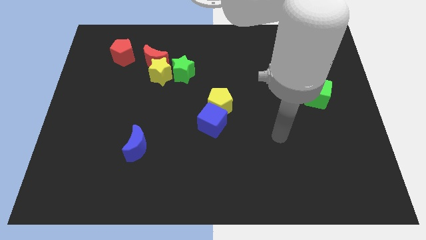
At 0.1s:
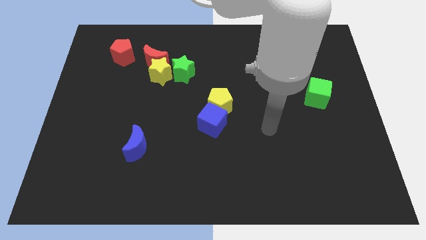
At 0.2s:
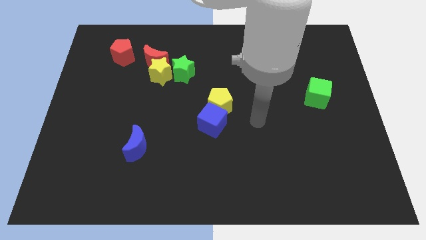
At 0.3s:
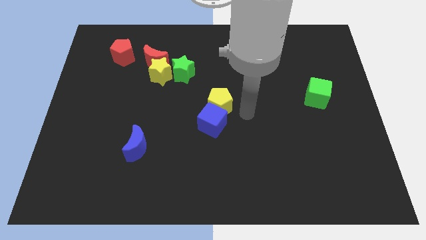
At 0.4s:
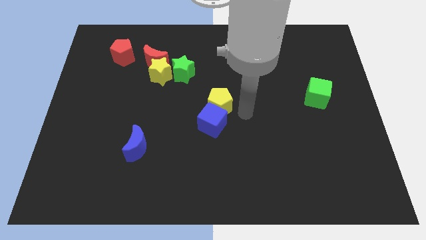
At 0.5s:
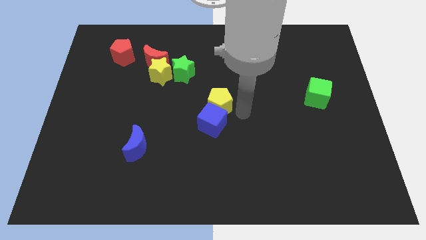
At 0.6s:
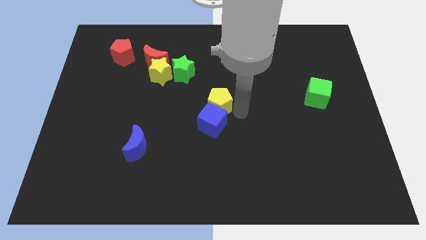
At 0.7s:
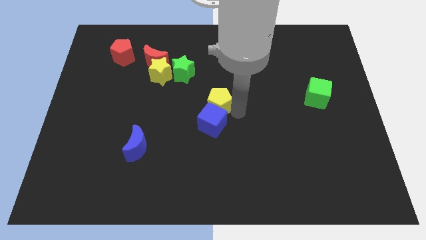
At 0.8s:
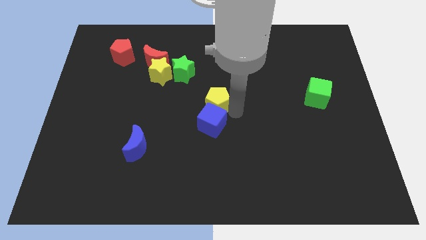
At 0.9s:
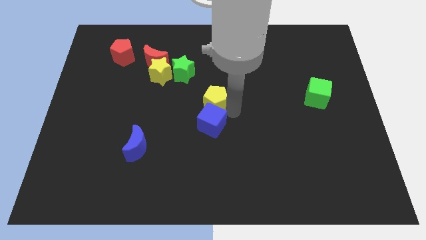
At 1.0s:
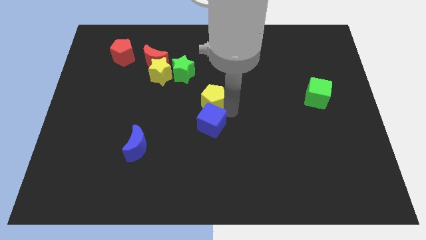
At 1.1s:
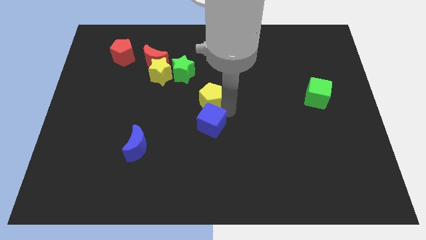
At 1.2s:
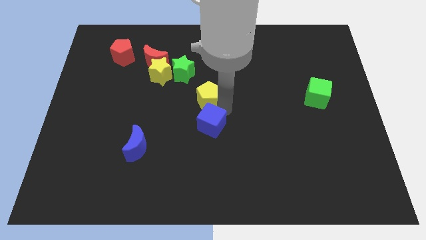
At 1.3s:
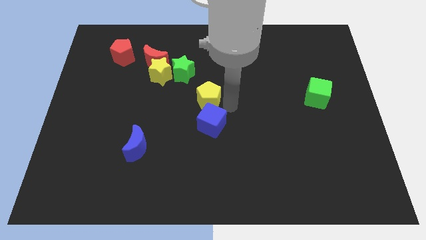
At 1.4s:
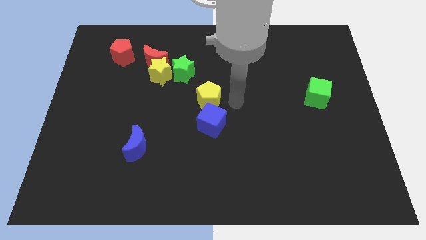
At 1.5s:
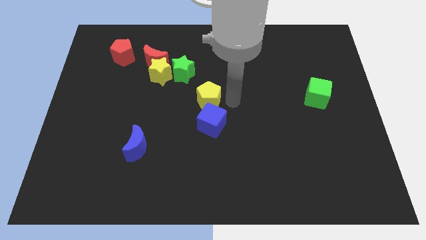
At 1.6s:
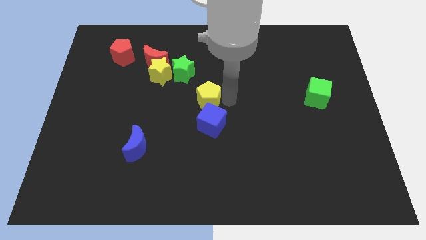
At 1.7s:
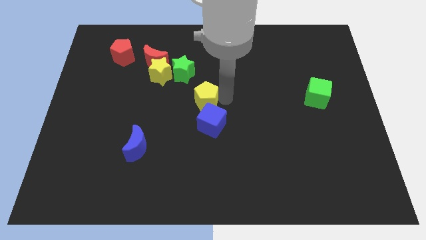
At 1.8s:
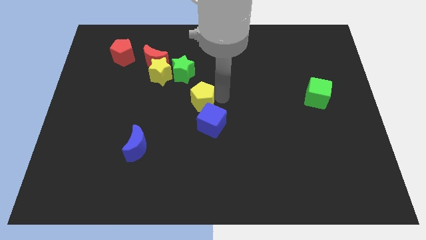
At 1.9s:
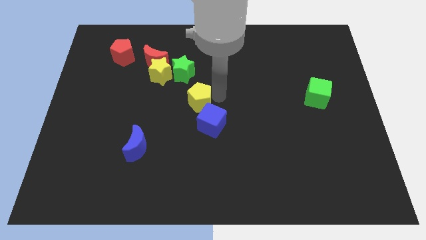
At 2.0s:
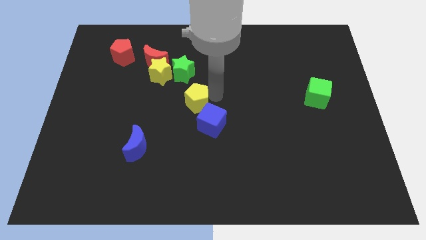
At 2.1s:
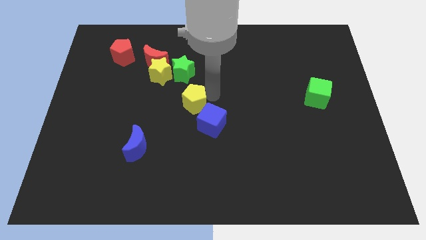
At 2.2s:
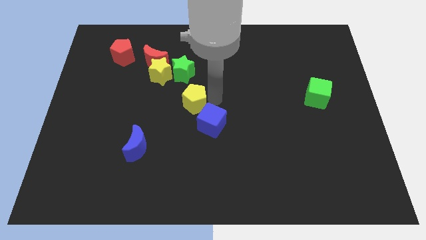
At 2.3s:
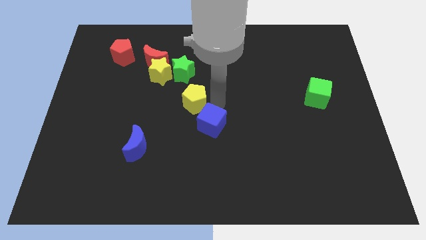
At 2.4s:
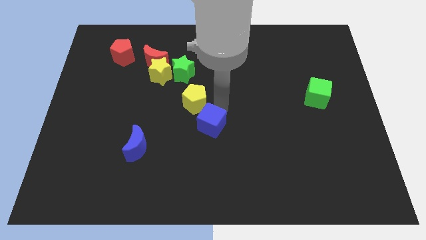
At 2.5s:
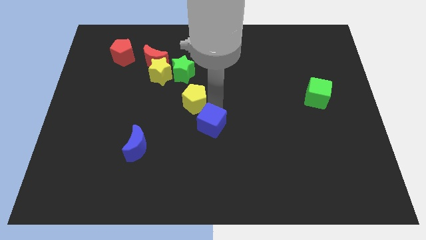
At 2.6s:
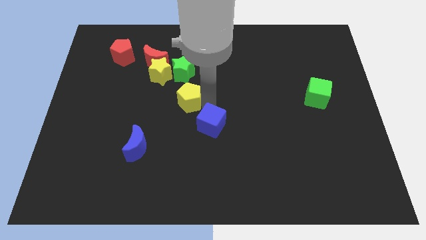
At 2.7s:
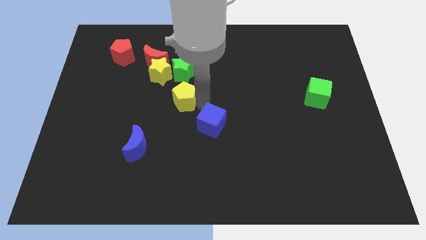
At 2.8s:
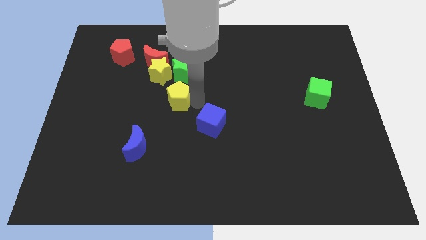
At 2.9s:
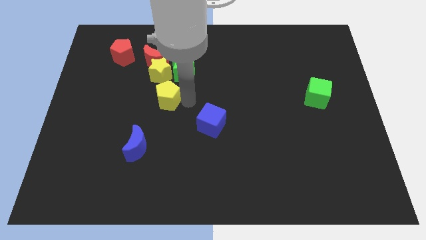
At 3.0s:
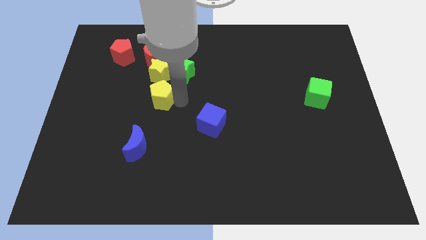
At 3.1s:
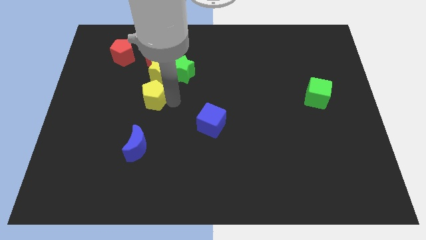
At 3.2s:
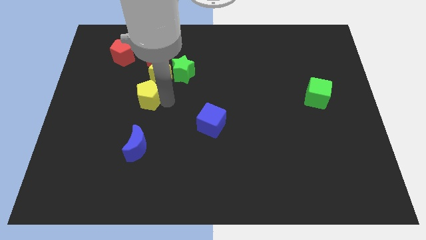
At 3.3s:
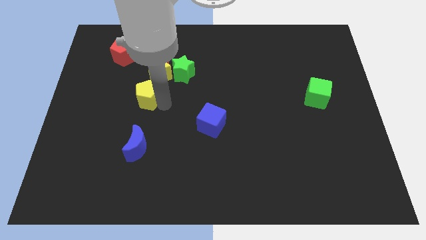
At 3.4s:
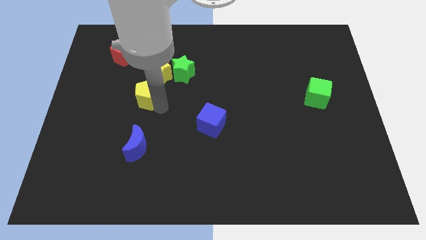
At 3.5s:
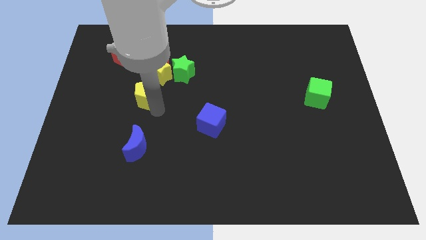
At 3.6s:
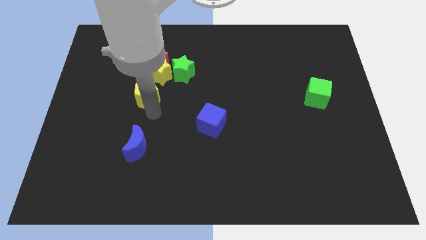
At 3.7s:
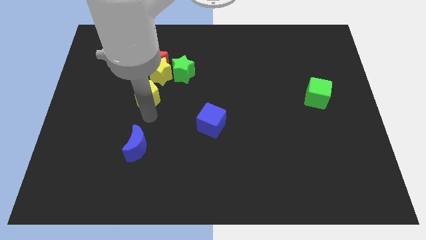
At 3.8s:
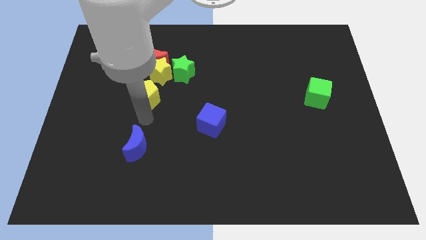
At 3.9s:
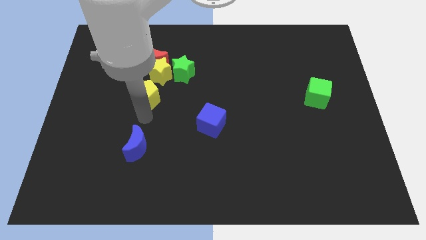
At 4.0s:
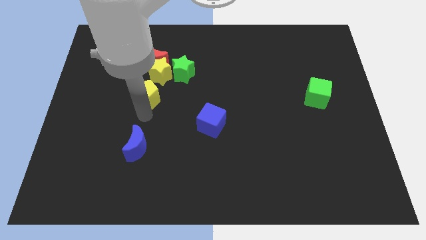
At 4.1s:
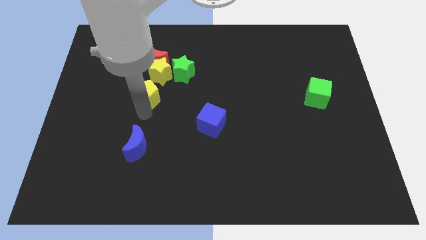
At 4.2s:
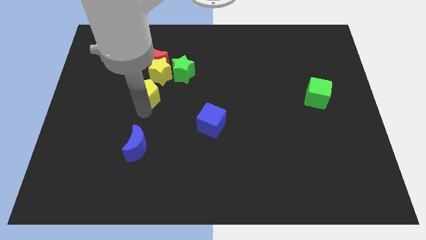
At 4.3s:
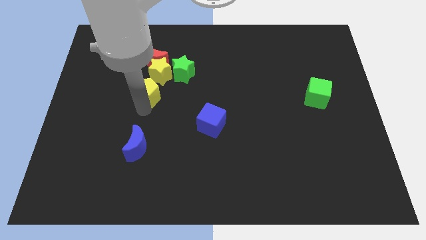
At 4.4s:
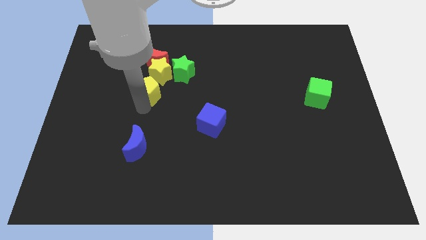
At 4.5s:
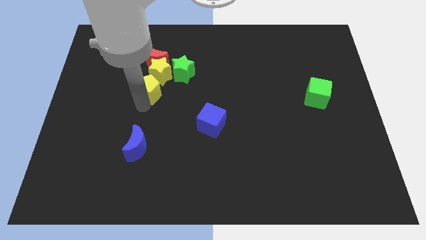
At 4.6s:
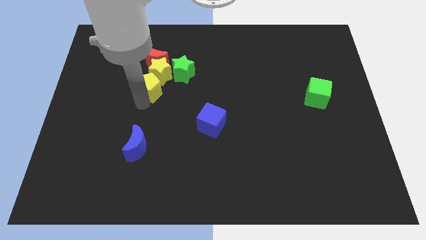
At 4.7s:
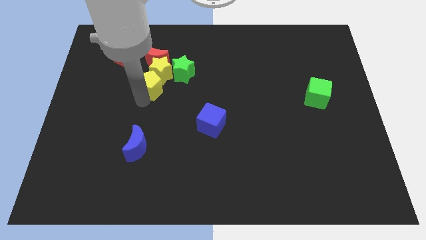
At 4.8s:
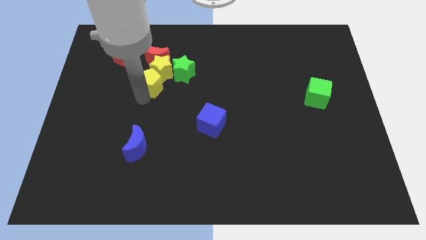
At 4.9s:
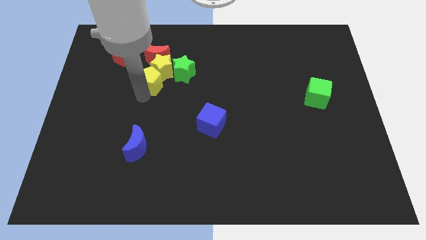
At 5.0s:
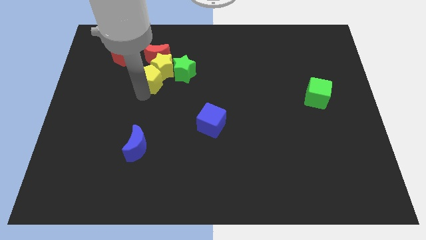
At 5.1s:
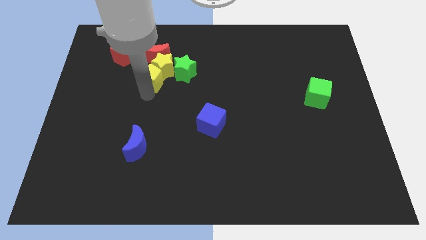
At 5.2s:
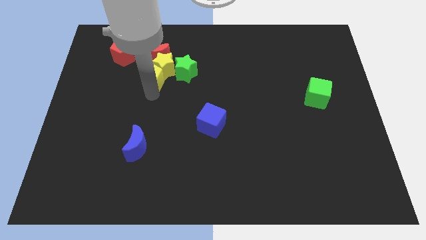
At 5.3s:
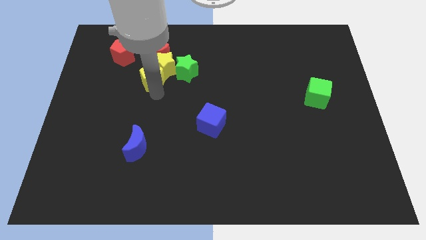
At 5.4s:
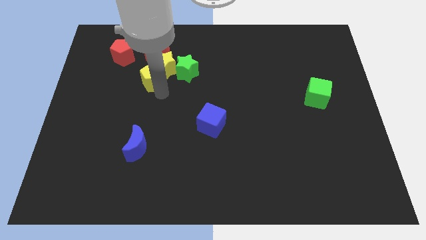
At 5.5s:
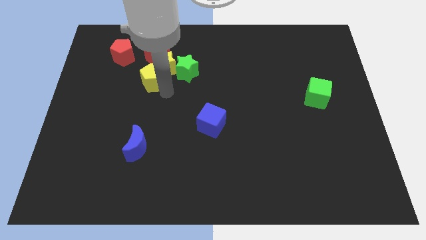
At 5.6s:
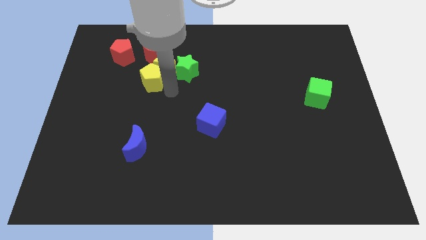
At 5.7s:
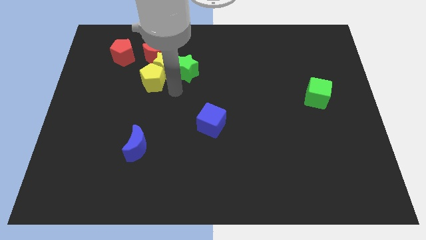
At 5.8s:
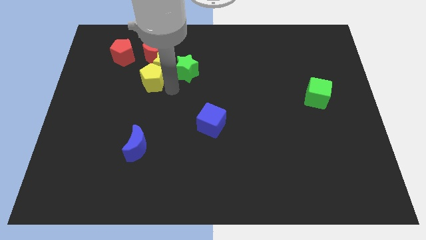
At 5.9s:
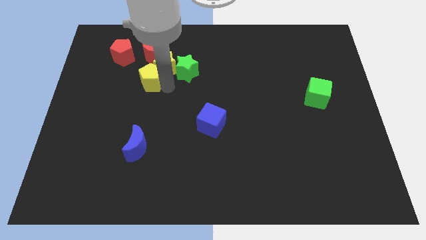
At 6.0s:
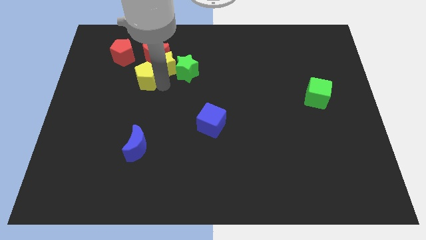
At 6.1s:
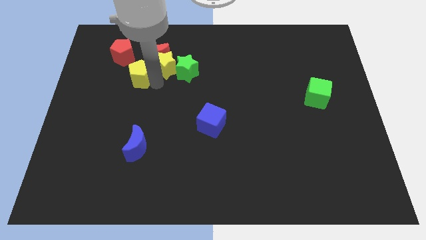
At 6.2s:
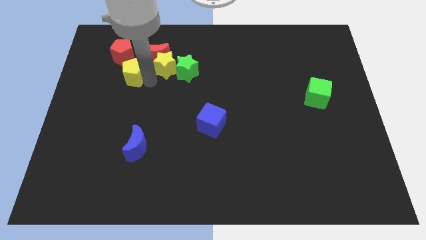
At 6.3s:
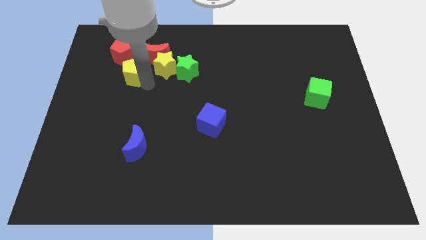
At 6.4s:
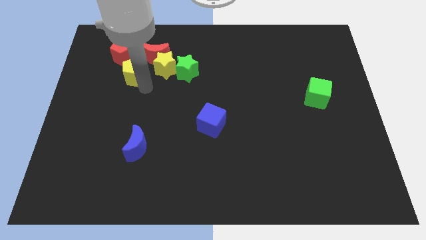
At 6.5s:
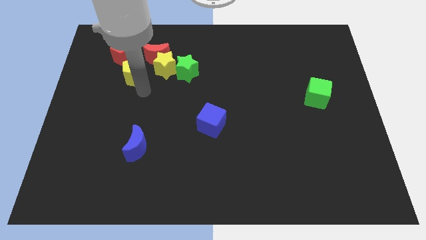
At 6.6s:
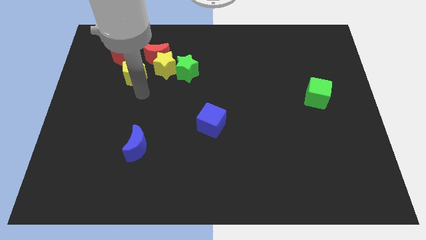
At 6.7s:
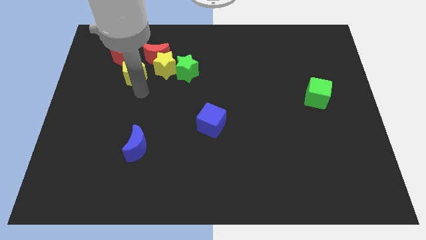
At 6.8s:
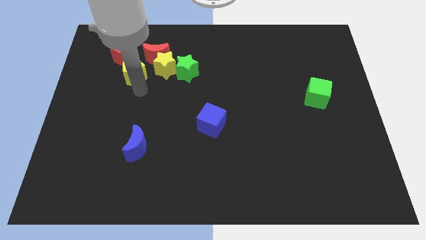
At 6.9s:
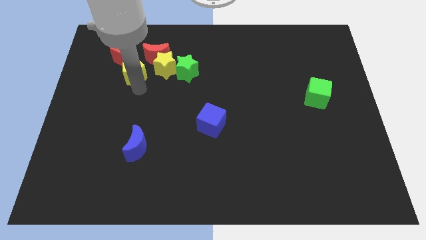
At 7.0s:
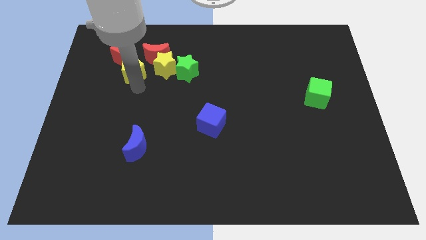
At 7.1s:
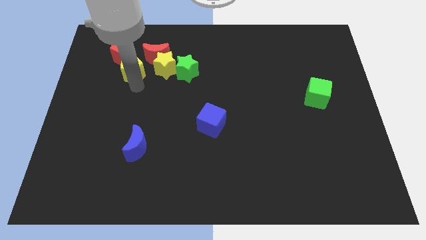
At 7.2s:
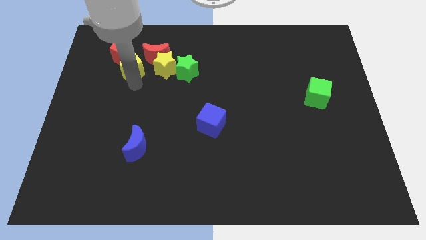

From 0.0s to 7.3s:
push the yellow pentagon to the red pentagon

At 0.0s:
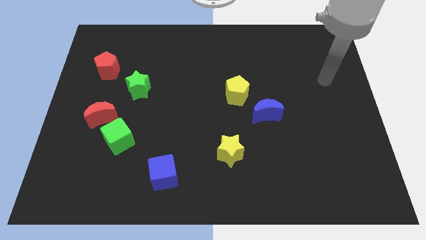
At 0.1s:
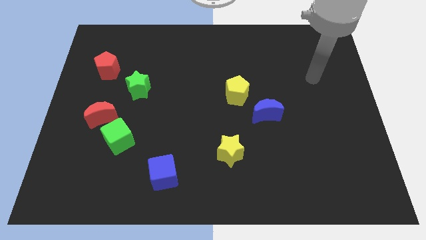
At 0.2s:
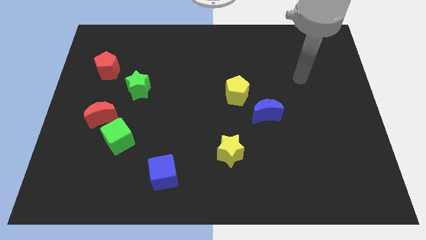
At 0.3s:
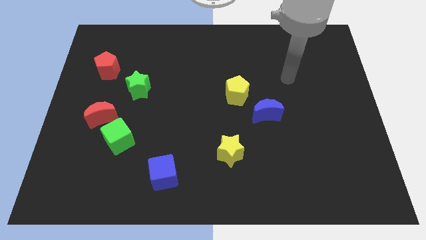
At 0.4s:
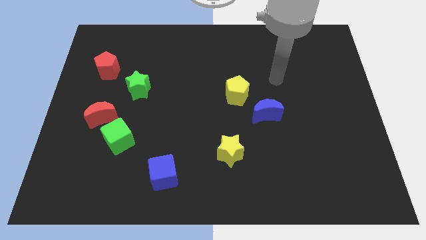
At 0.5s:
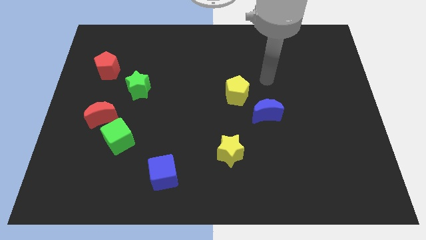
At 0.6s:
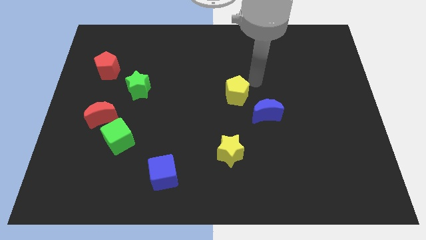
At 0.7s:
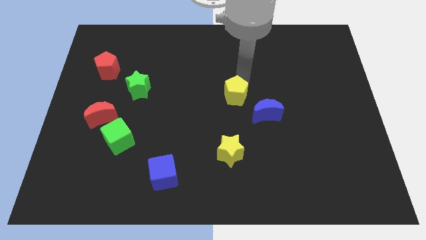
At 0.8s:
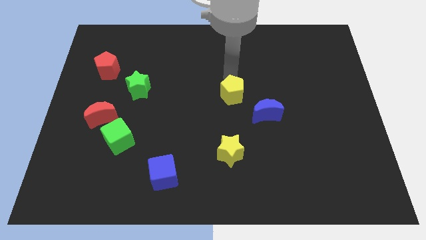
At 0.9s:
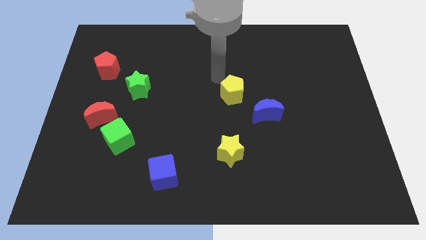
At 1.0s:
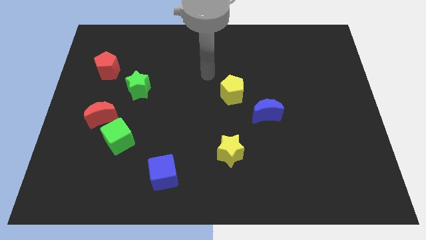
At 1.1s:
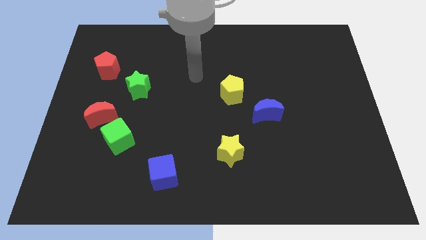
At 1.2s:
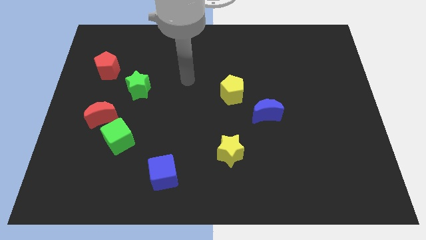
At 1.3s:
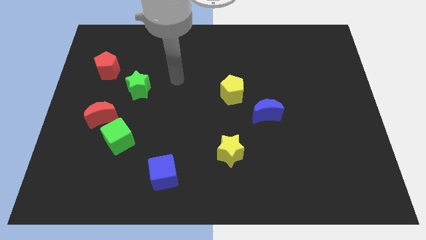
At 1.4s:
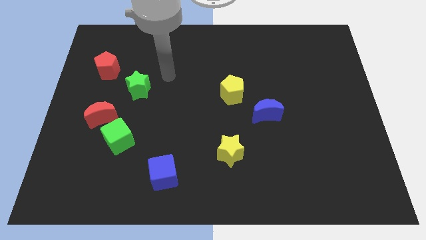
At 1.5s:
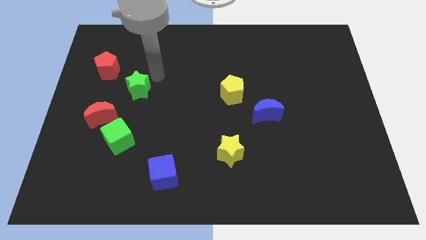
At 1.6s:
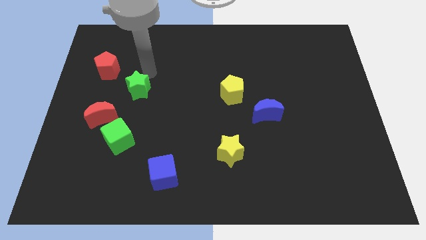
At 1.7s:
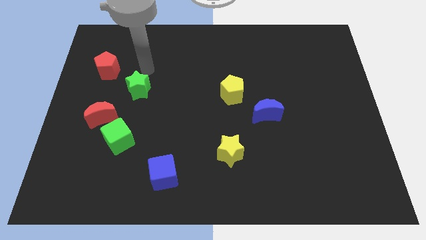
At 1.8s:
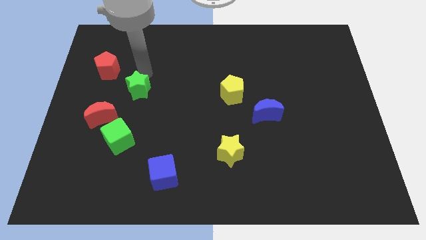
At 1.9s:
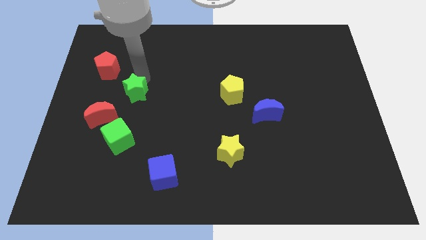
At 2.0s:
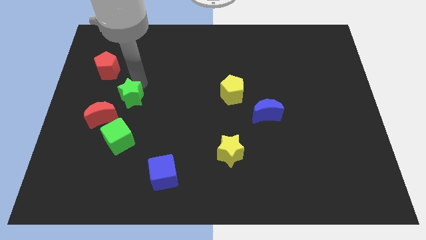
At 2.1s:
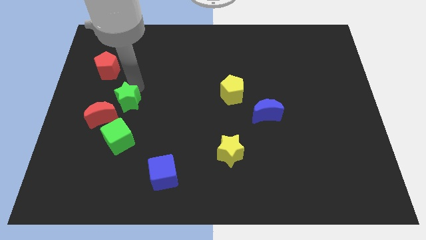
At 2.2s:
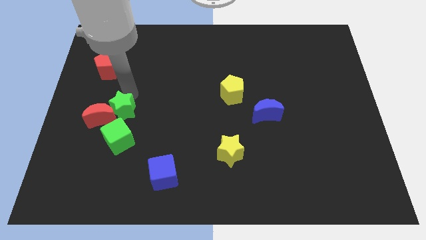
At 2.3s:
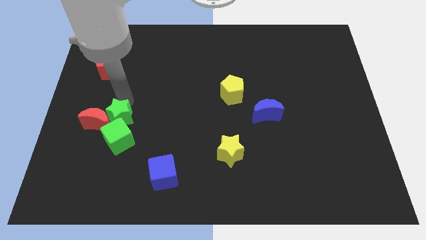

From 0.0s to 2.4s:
push the green star towards the green cube
